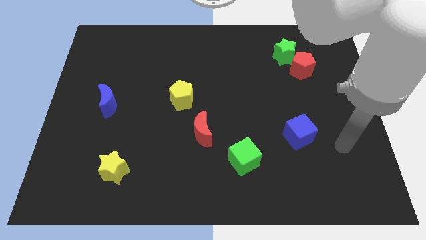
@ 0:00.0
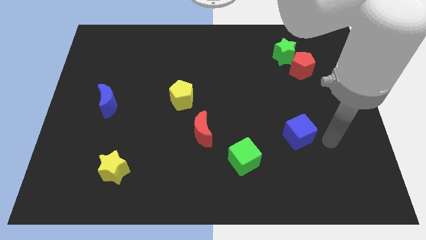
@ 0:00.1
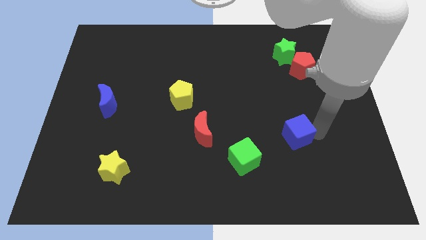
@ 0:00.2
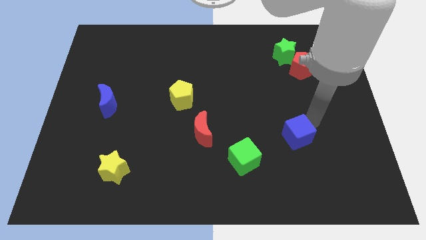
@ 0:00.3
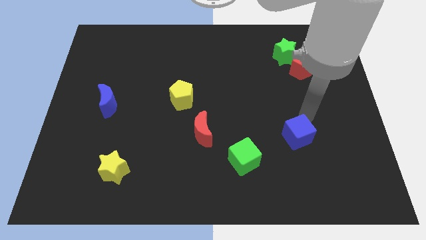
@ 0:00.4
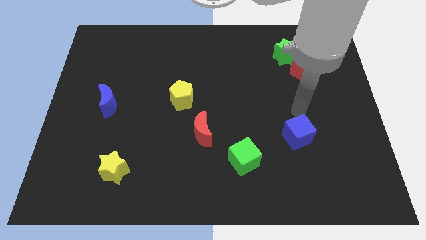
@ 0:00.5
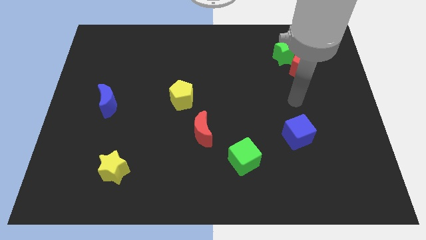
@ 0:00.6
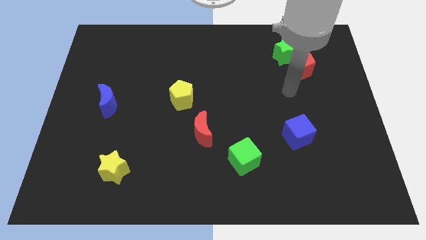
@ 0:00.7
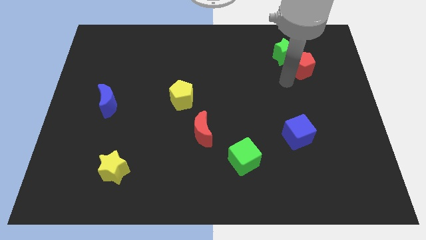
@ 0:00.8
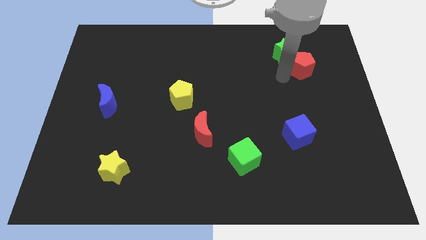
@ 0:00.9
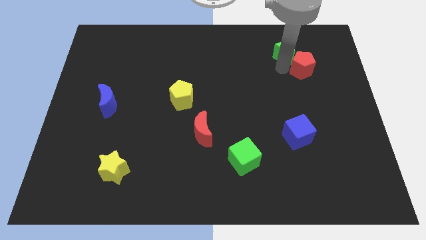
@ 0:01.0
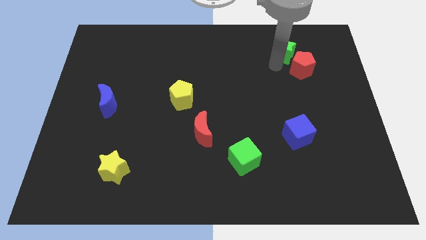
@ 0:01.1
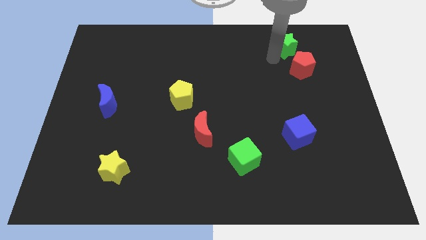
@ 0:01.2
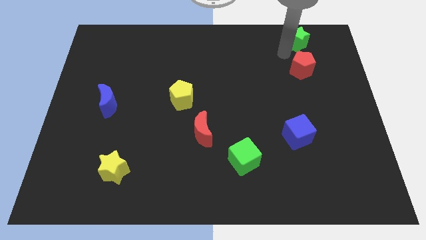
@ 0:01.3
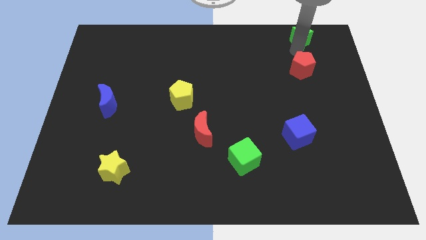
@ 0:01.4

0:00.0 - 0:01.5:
separate the red pentagon from the green star

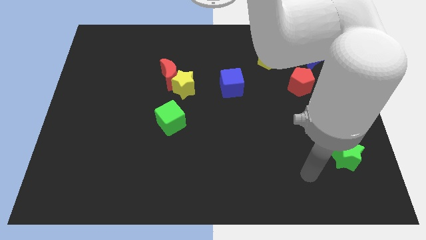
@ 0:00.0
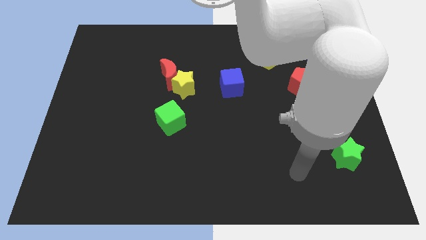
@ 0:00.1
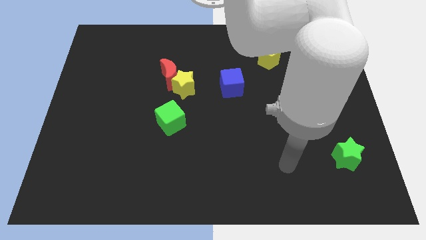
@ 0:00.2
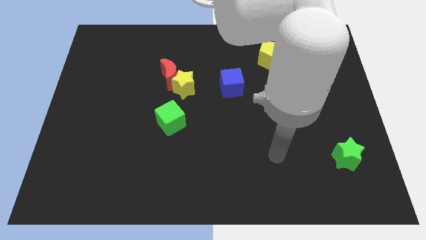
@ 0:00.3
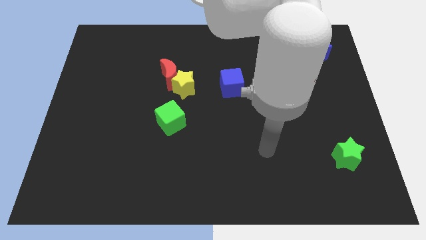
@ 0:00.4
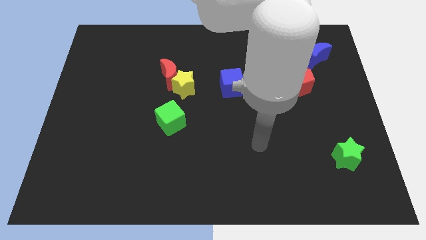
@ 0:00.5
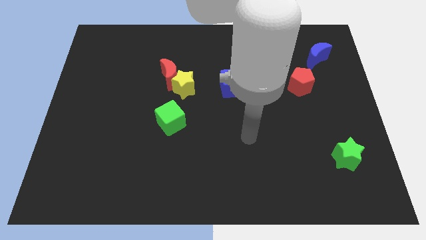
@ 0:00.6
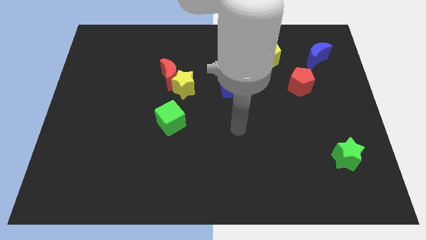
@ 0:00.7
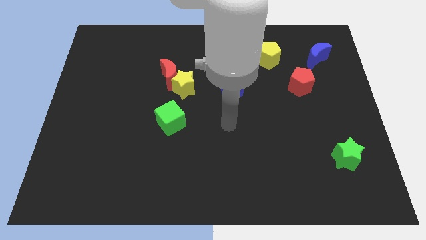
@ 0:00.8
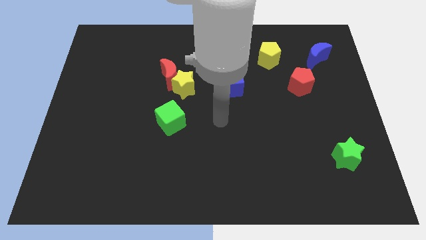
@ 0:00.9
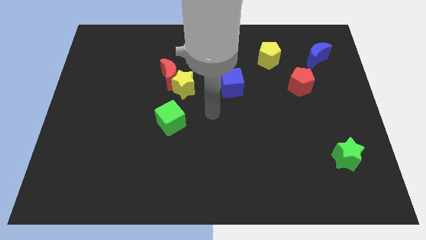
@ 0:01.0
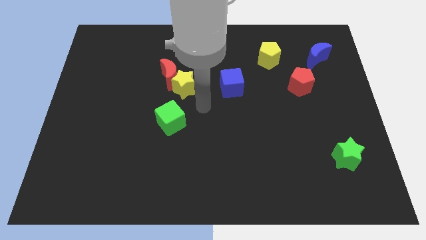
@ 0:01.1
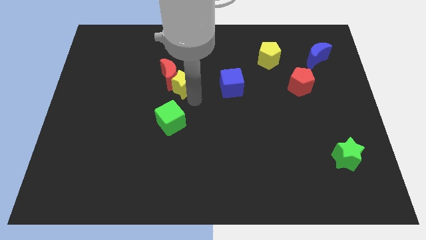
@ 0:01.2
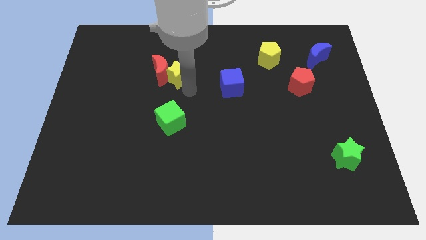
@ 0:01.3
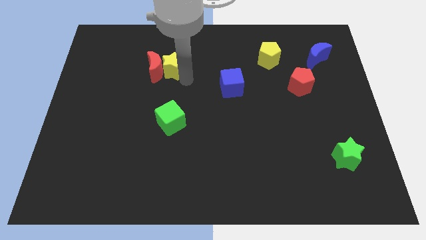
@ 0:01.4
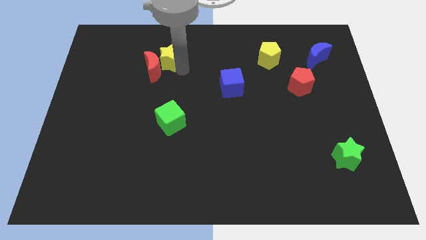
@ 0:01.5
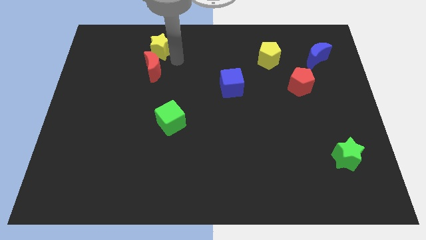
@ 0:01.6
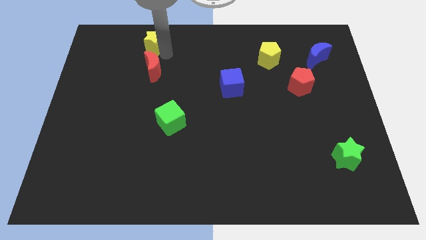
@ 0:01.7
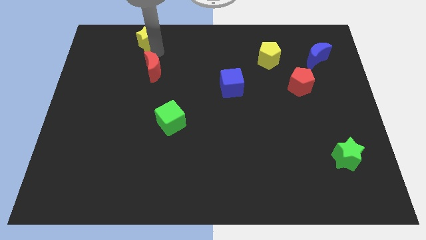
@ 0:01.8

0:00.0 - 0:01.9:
pull the red moon apart from the yellow star

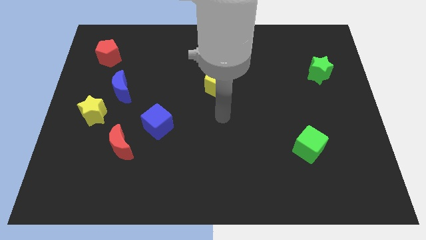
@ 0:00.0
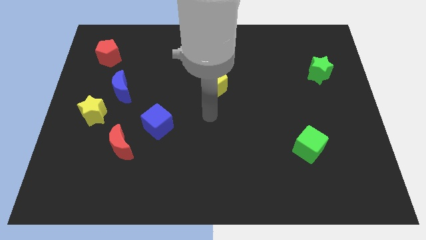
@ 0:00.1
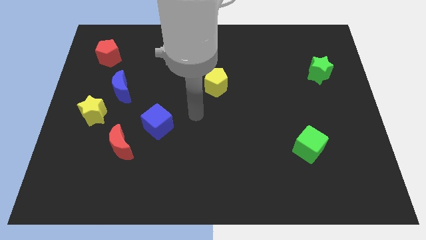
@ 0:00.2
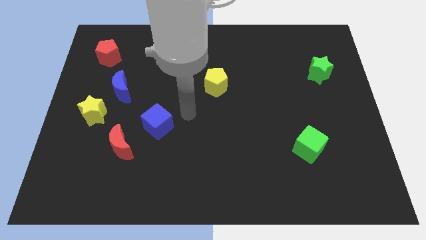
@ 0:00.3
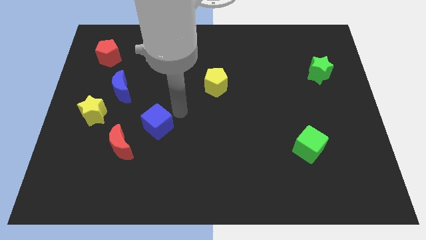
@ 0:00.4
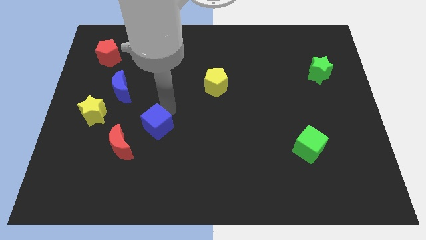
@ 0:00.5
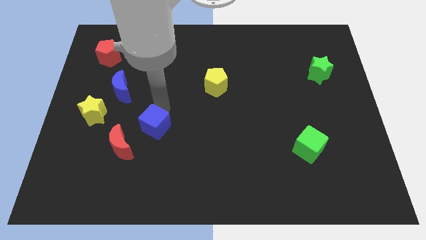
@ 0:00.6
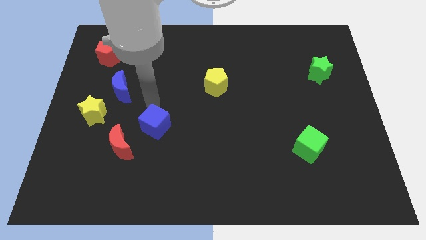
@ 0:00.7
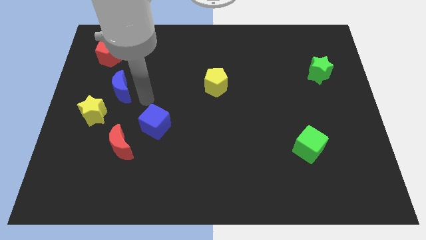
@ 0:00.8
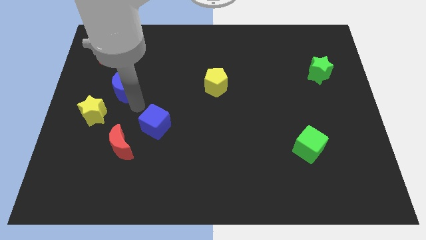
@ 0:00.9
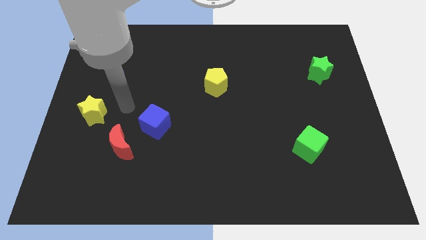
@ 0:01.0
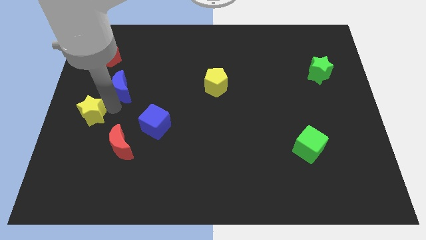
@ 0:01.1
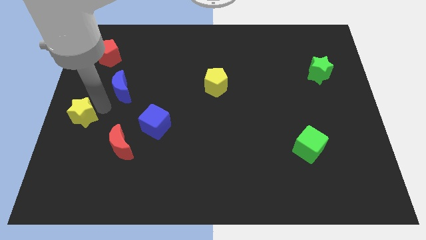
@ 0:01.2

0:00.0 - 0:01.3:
move the blue moon away from the yellow star

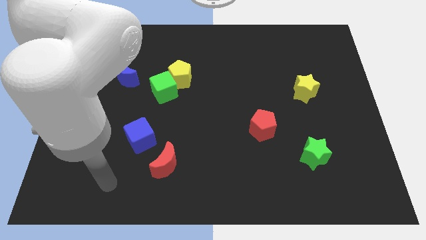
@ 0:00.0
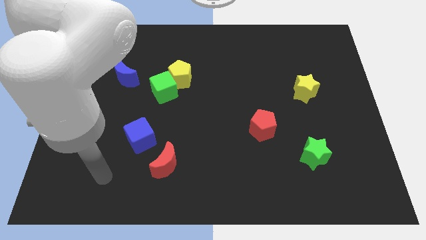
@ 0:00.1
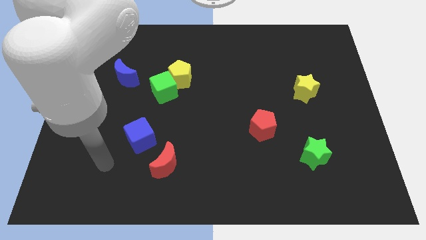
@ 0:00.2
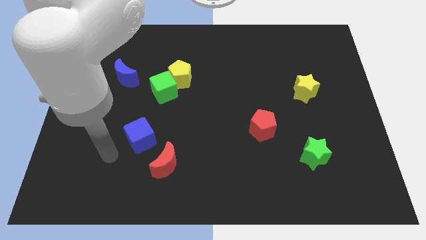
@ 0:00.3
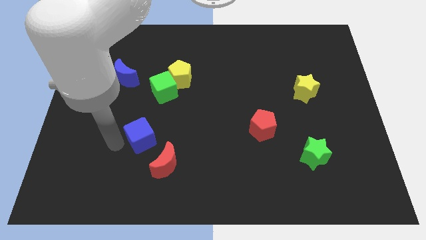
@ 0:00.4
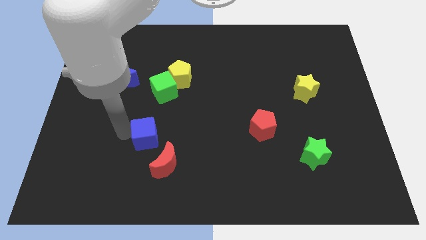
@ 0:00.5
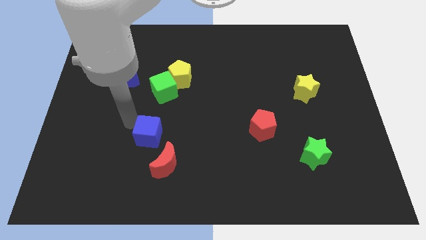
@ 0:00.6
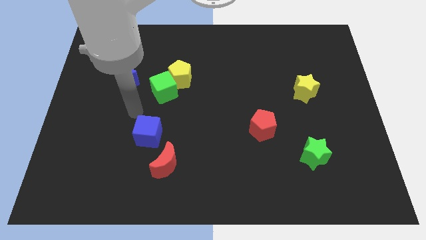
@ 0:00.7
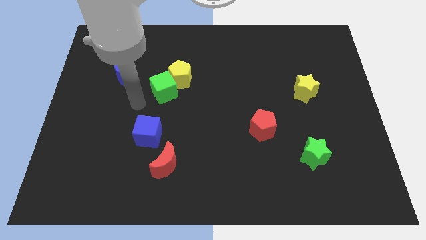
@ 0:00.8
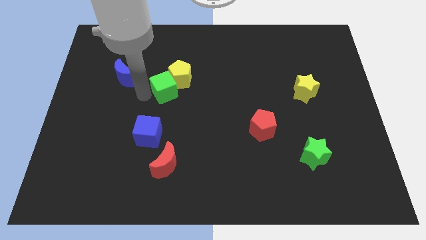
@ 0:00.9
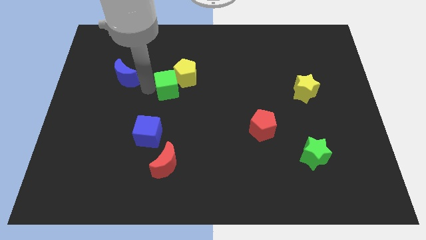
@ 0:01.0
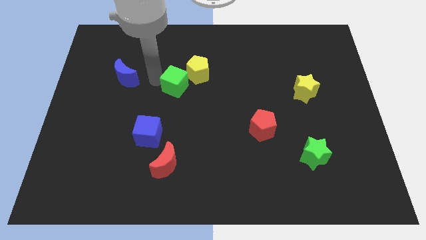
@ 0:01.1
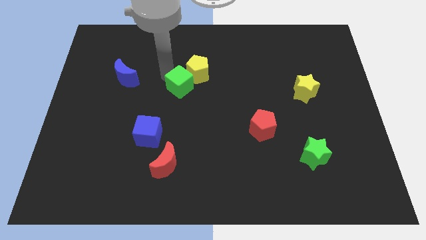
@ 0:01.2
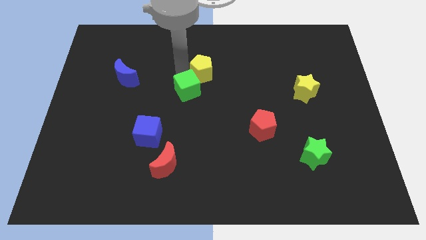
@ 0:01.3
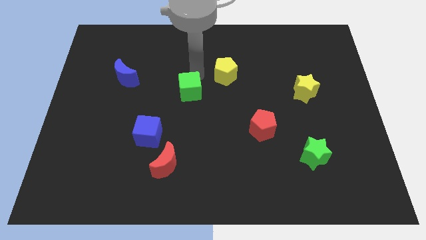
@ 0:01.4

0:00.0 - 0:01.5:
move the green cube away from the yellow pentagon

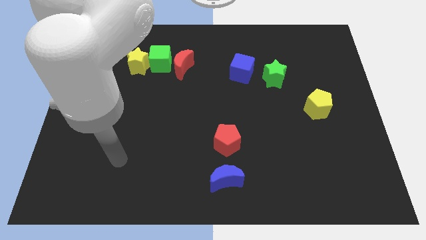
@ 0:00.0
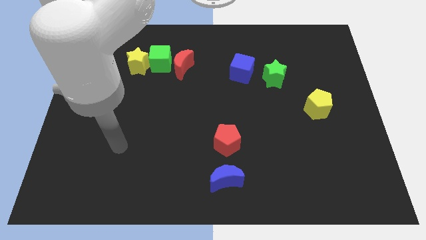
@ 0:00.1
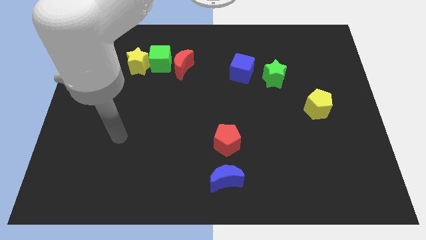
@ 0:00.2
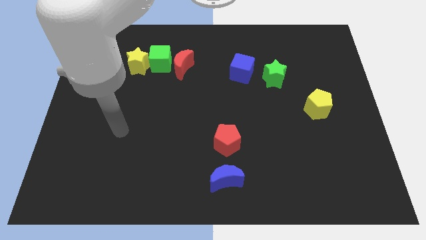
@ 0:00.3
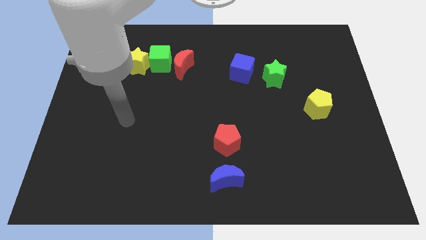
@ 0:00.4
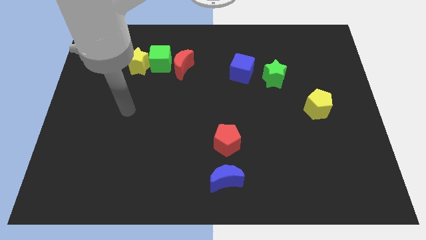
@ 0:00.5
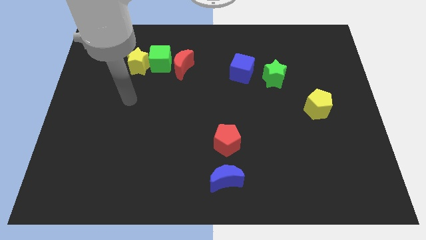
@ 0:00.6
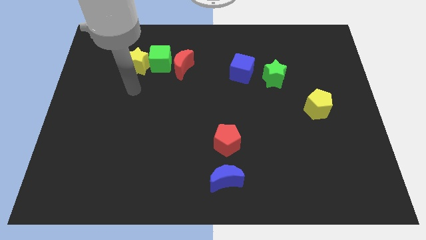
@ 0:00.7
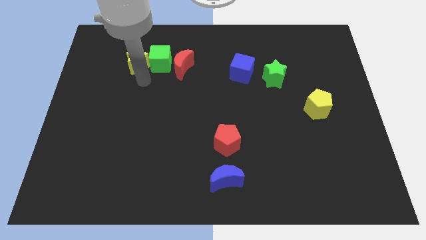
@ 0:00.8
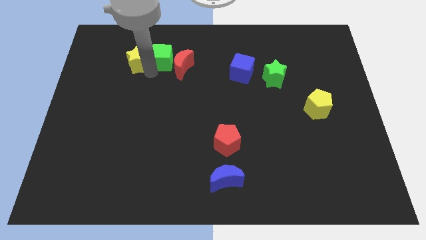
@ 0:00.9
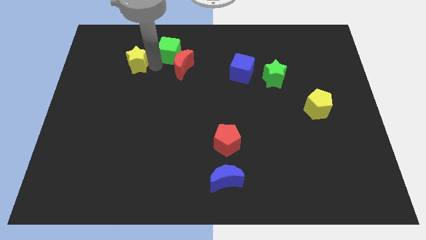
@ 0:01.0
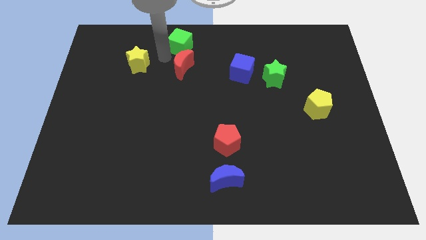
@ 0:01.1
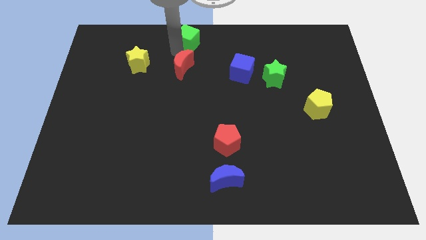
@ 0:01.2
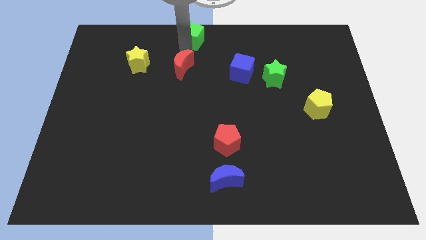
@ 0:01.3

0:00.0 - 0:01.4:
move the red moon away from the green cube

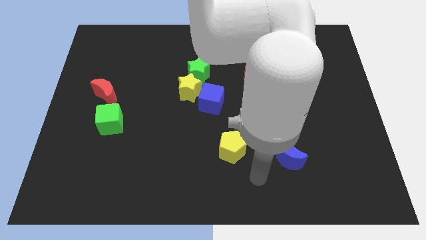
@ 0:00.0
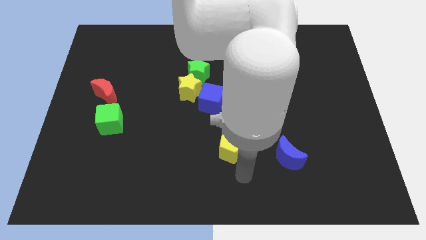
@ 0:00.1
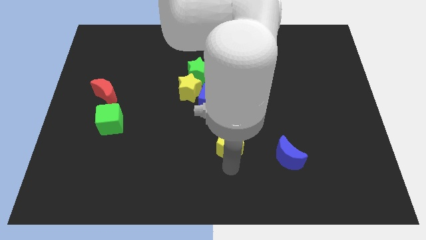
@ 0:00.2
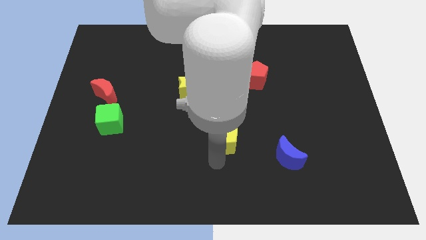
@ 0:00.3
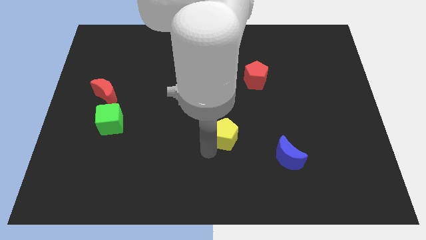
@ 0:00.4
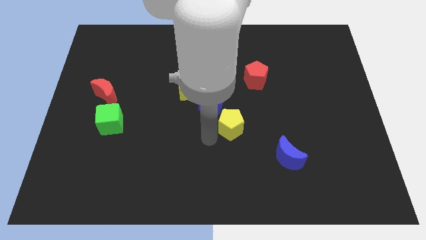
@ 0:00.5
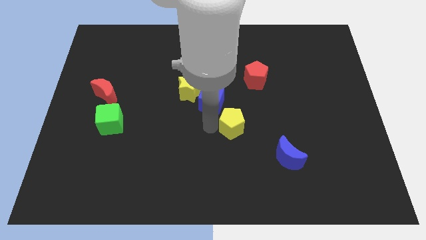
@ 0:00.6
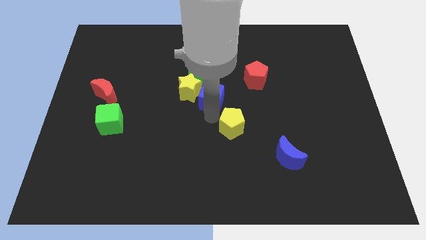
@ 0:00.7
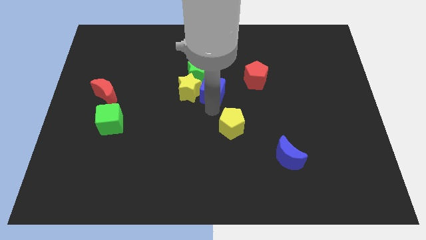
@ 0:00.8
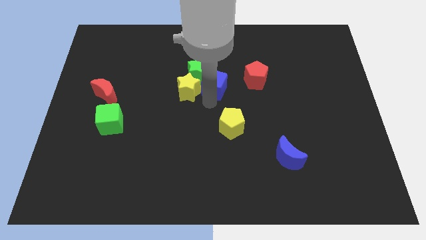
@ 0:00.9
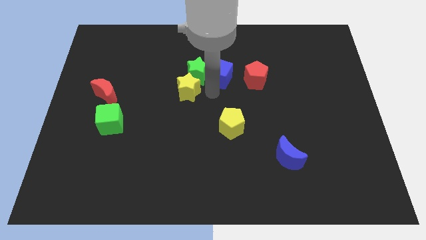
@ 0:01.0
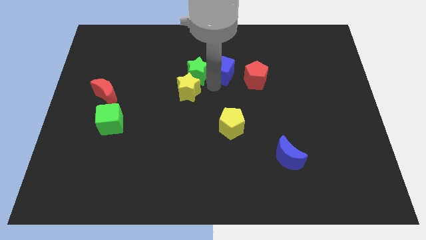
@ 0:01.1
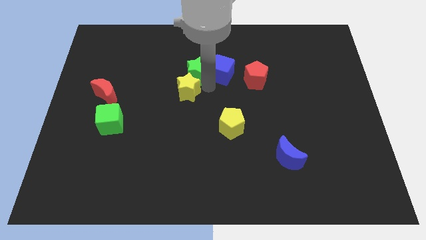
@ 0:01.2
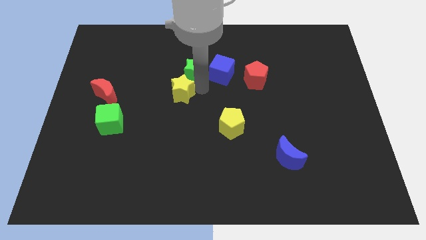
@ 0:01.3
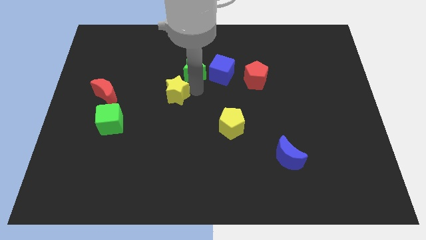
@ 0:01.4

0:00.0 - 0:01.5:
pull the yellow star apart from the green star and blue cube

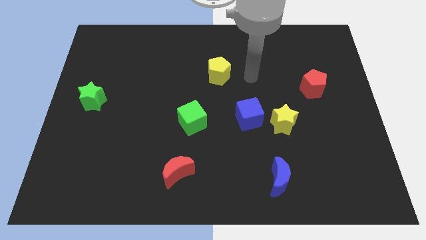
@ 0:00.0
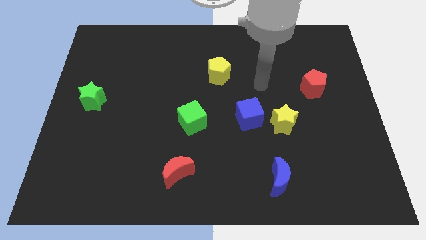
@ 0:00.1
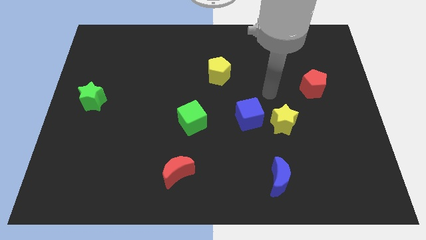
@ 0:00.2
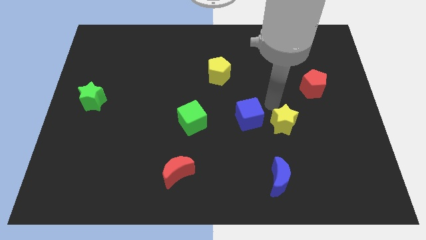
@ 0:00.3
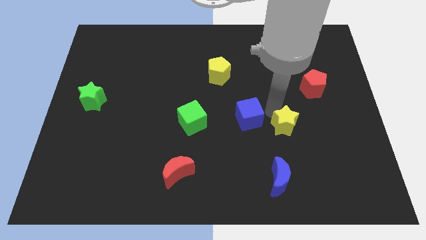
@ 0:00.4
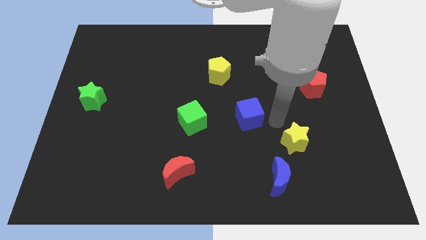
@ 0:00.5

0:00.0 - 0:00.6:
move the blue cube away from the yellow star
